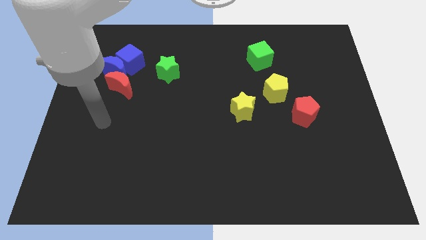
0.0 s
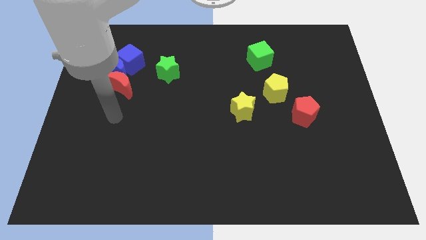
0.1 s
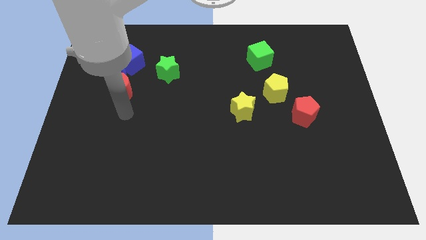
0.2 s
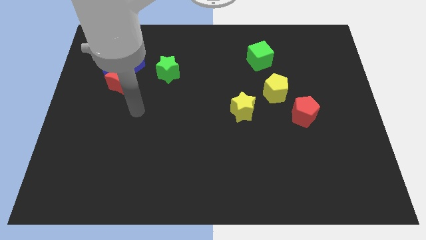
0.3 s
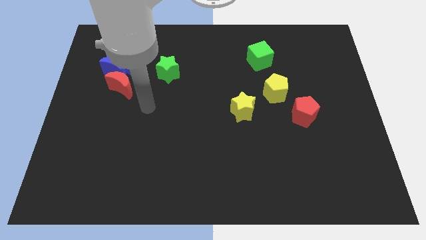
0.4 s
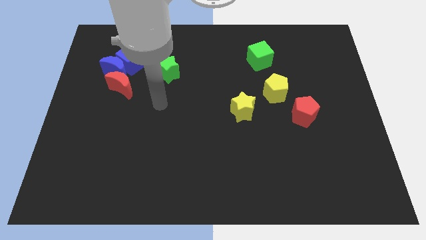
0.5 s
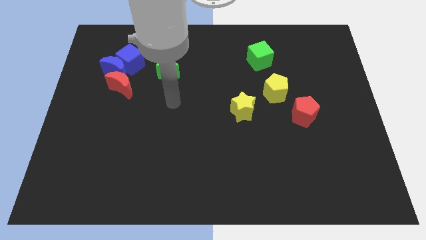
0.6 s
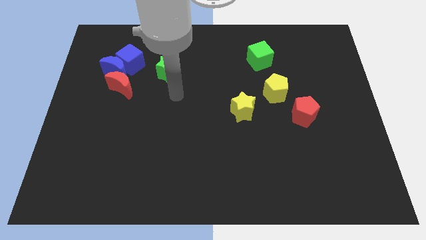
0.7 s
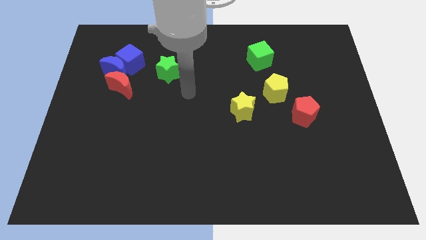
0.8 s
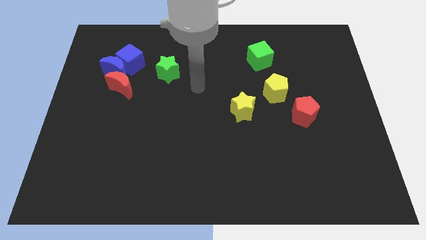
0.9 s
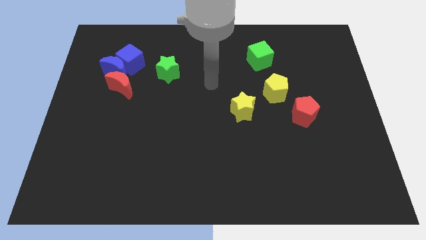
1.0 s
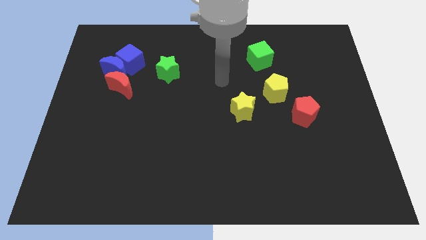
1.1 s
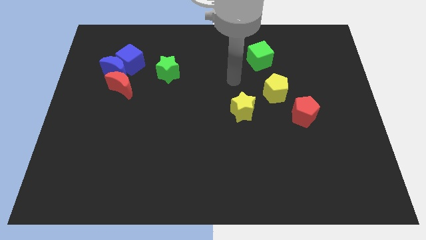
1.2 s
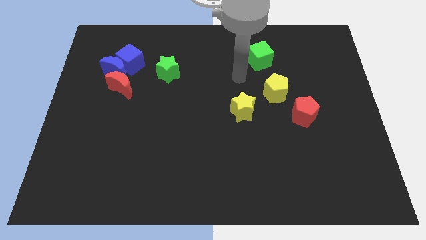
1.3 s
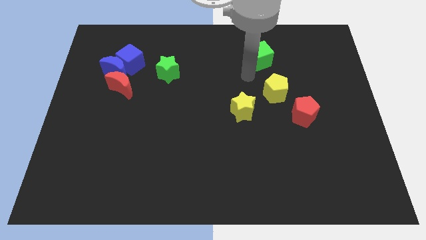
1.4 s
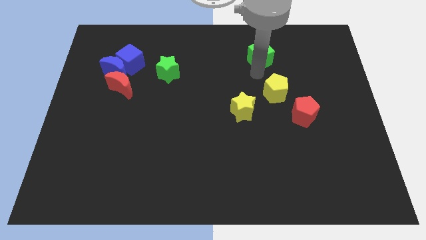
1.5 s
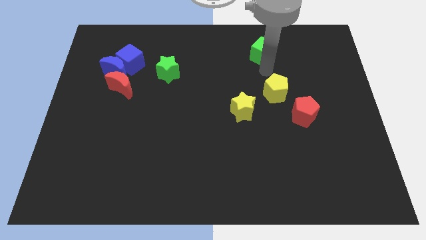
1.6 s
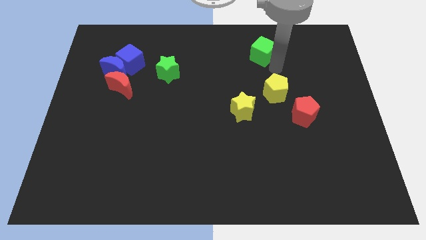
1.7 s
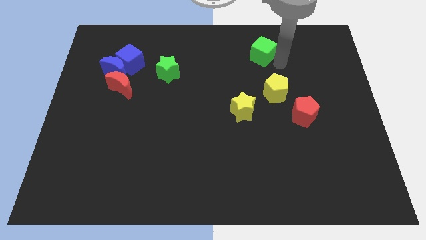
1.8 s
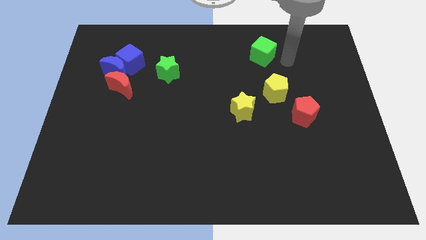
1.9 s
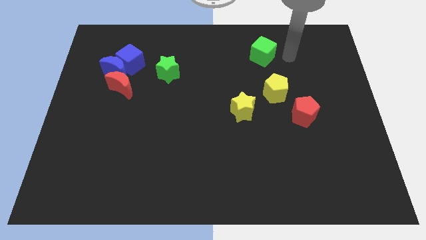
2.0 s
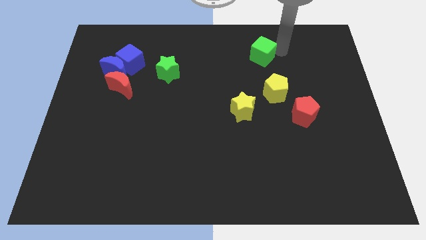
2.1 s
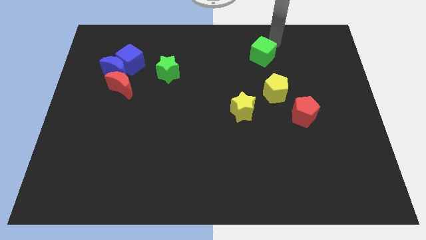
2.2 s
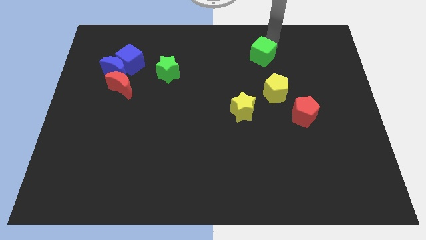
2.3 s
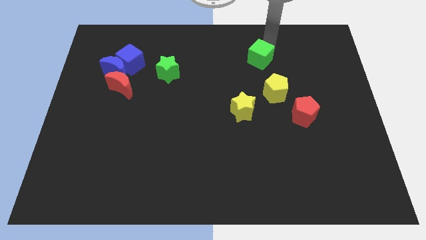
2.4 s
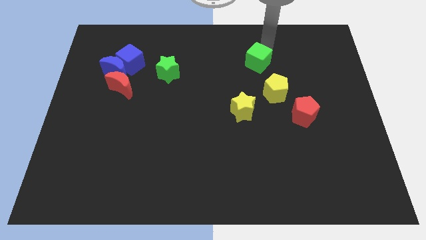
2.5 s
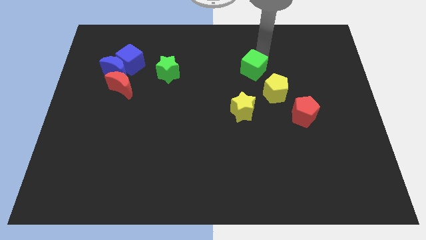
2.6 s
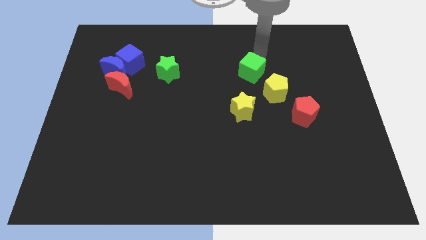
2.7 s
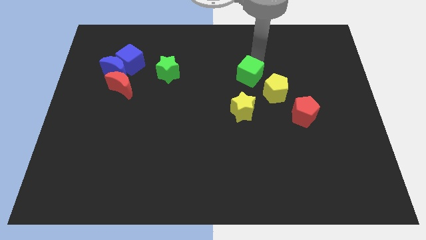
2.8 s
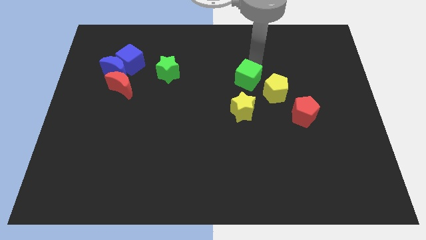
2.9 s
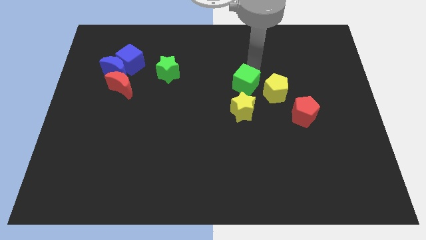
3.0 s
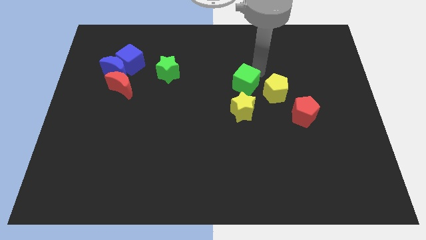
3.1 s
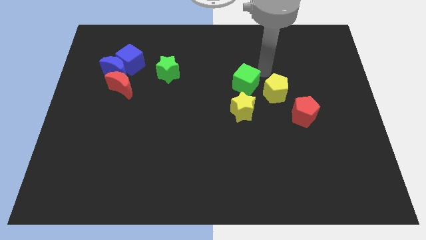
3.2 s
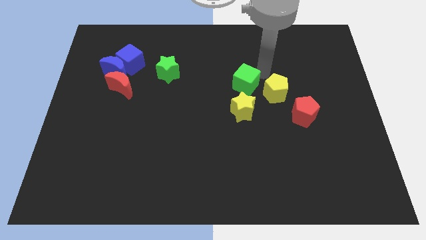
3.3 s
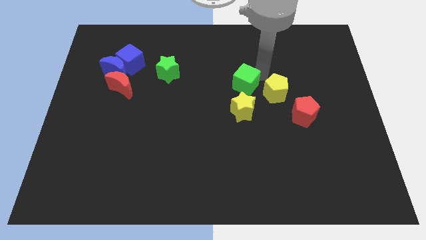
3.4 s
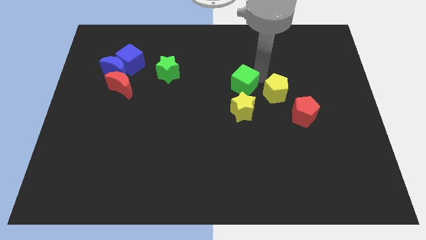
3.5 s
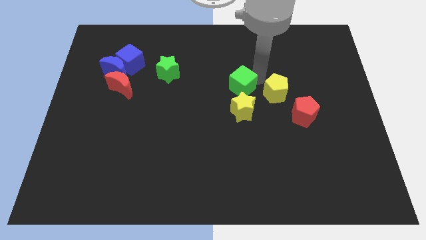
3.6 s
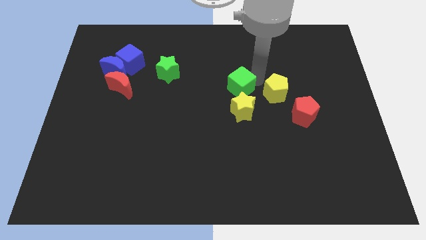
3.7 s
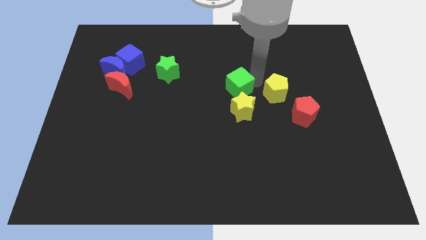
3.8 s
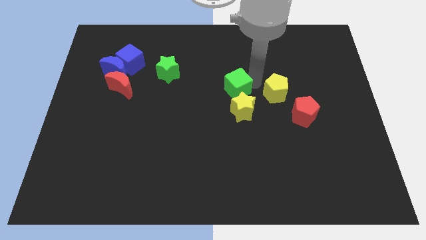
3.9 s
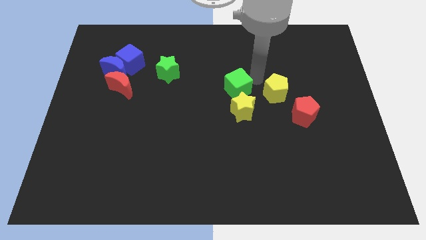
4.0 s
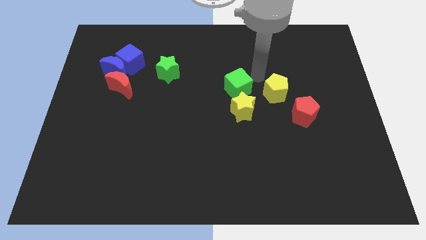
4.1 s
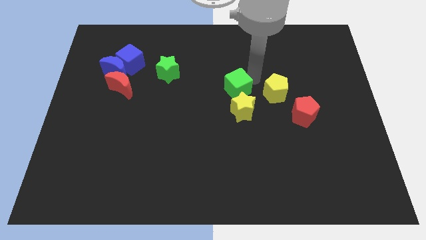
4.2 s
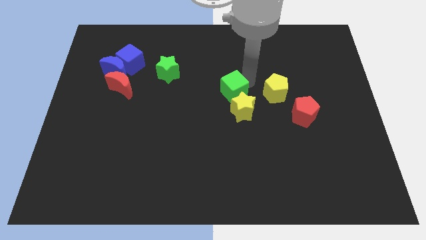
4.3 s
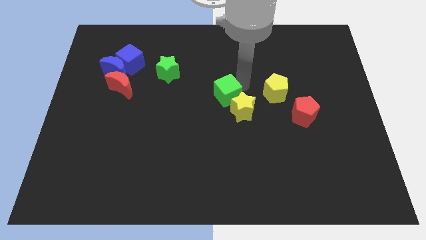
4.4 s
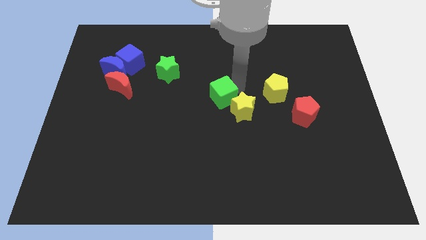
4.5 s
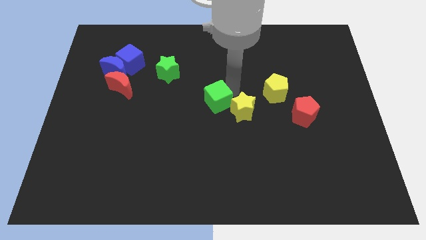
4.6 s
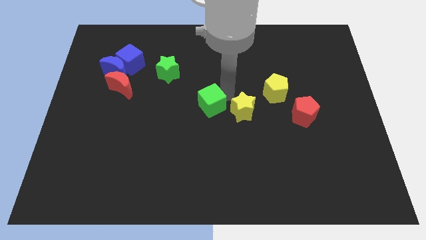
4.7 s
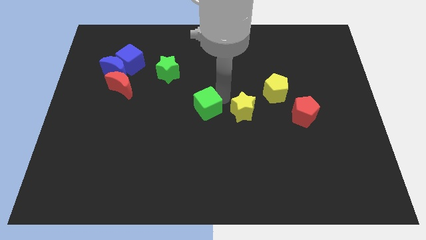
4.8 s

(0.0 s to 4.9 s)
move the green cube down and then to the left

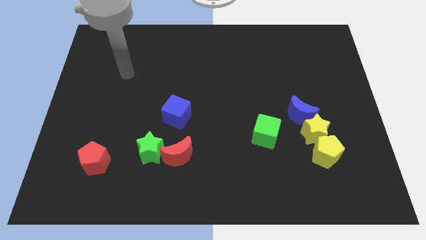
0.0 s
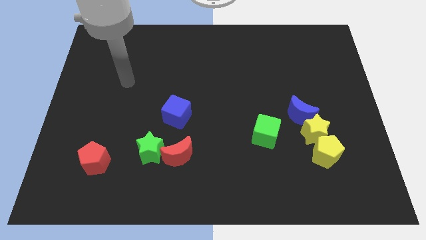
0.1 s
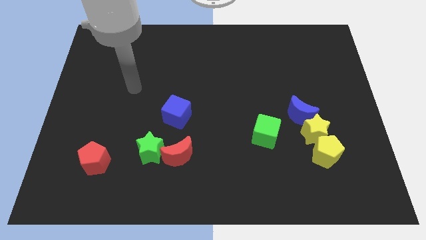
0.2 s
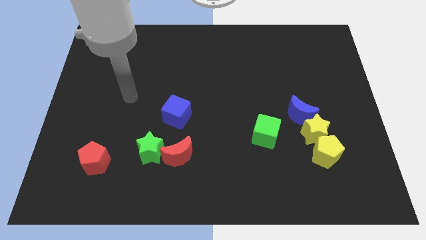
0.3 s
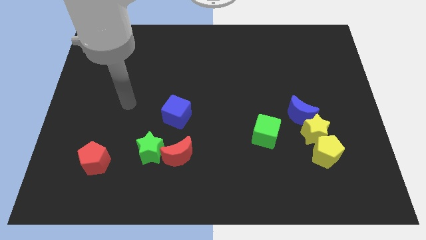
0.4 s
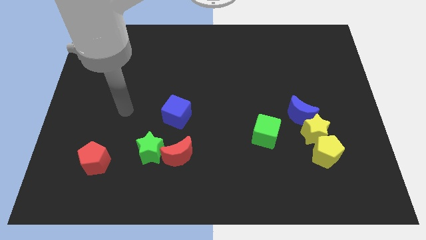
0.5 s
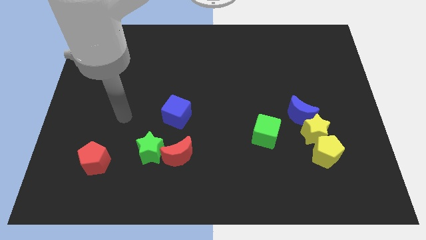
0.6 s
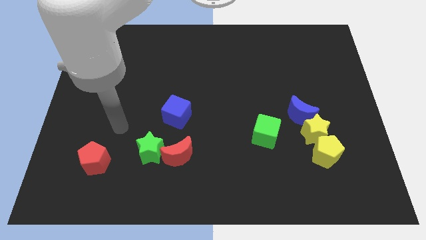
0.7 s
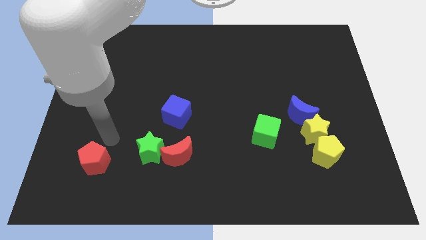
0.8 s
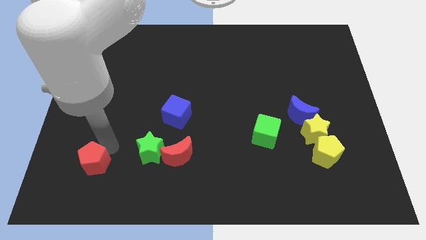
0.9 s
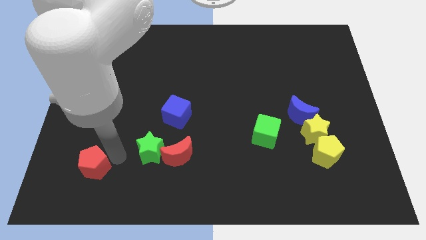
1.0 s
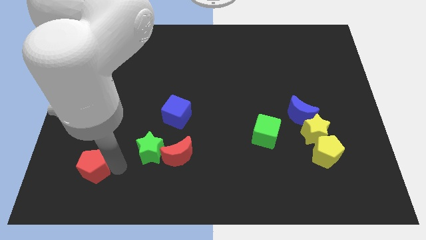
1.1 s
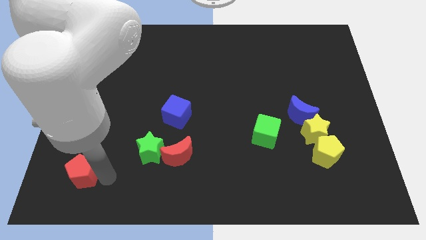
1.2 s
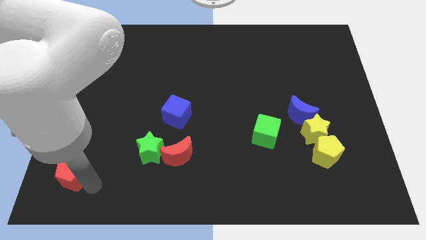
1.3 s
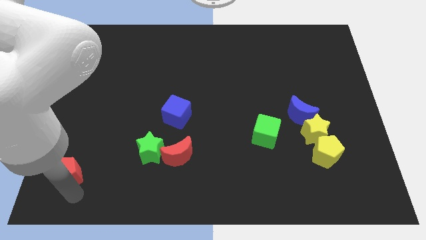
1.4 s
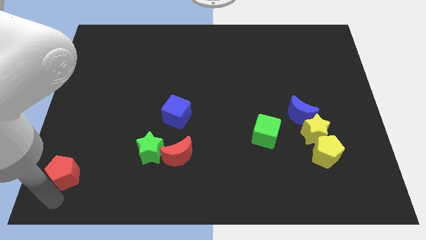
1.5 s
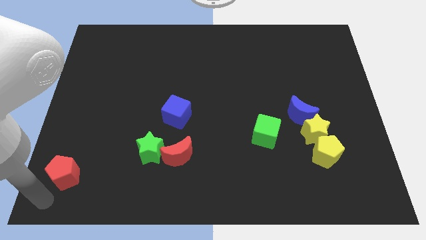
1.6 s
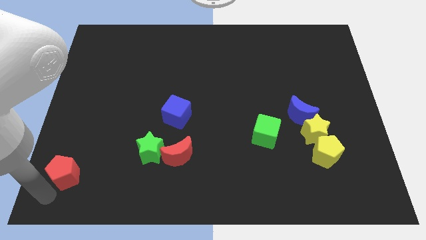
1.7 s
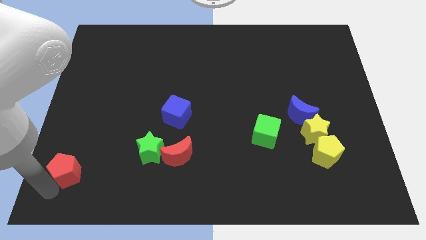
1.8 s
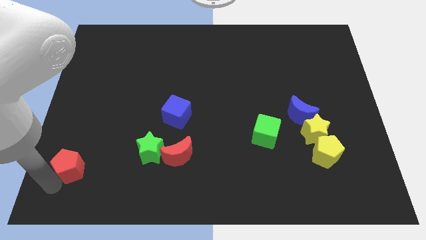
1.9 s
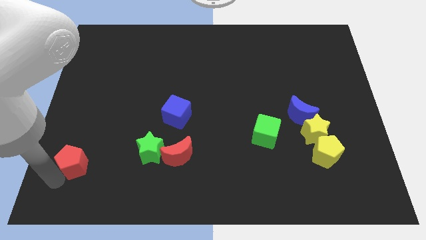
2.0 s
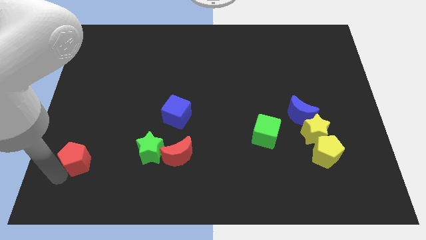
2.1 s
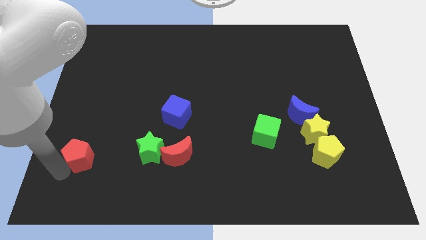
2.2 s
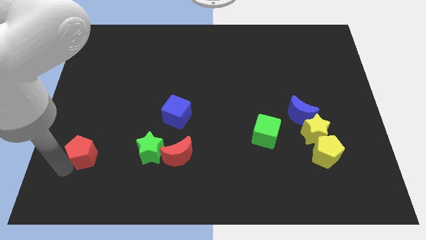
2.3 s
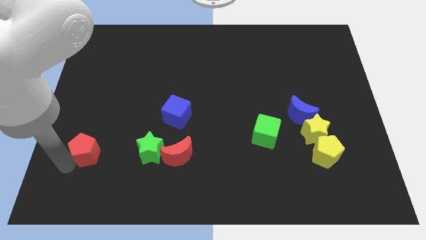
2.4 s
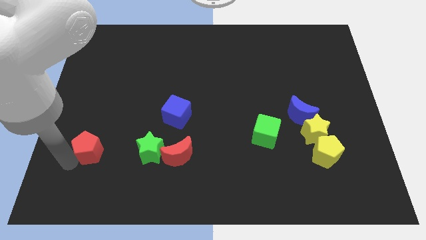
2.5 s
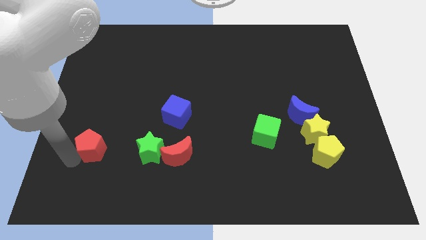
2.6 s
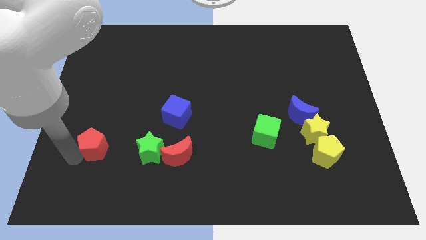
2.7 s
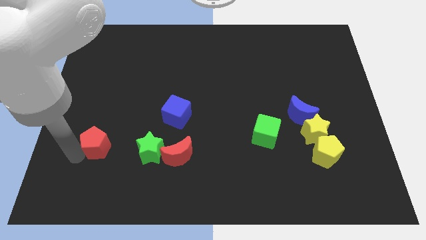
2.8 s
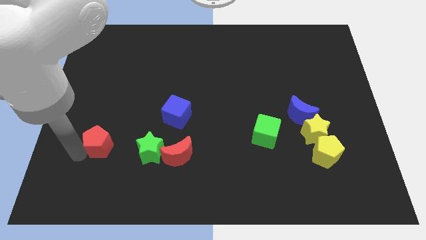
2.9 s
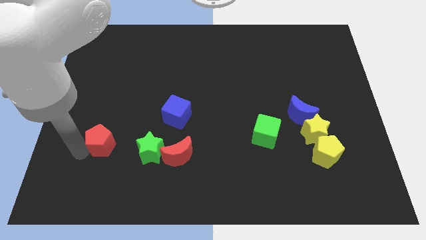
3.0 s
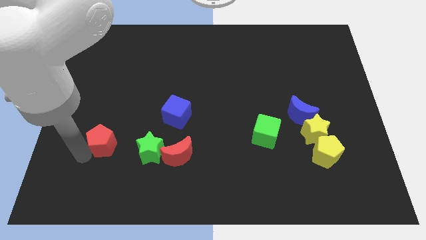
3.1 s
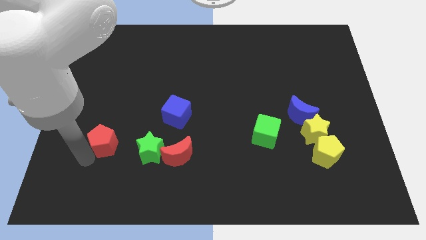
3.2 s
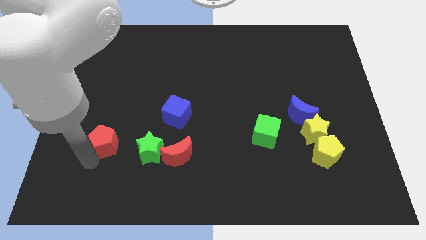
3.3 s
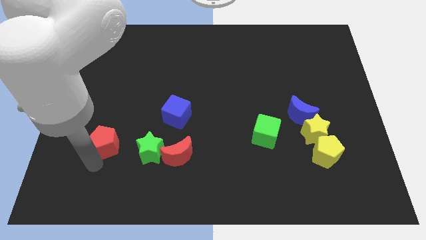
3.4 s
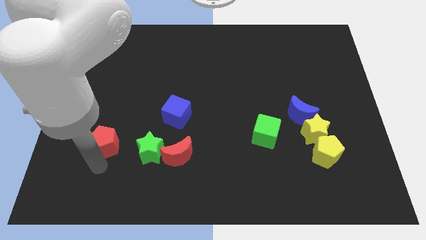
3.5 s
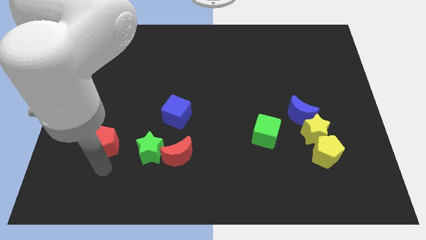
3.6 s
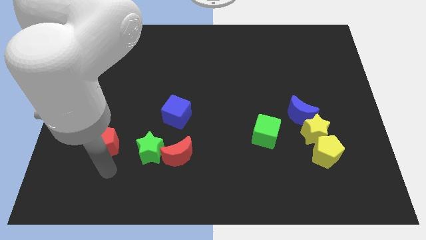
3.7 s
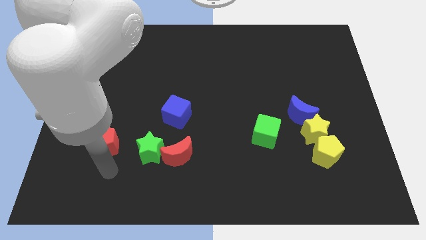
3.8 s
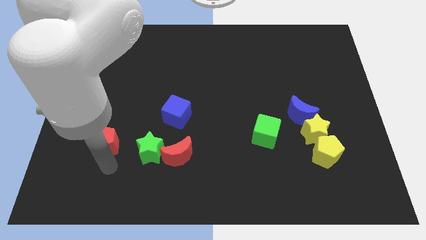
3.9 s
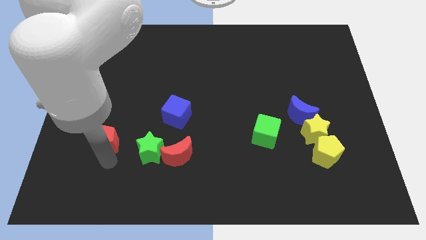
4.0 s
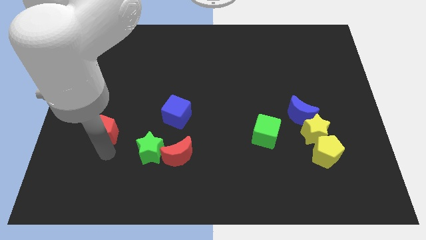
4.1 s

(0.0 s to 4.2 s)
push the red pentagon somewhat upwards
